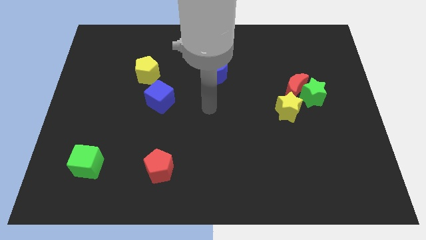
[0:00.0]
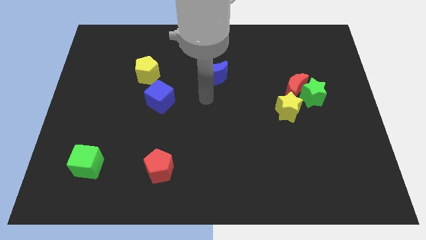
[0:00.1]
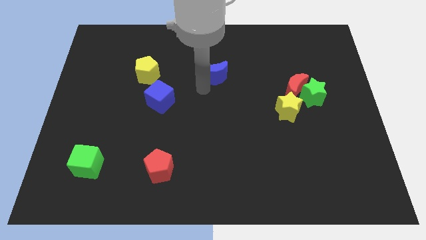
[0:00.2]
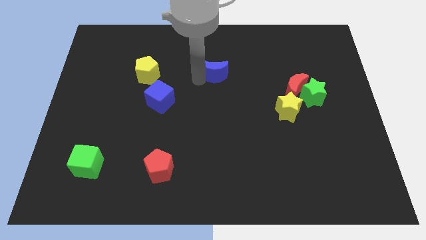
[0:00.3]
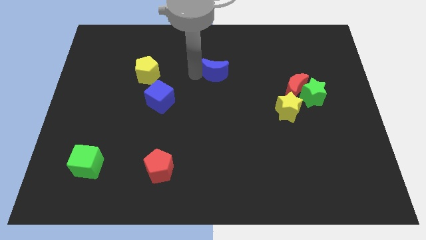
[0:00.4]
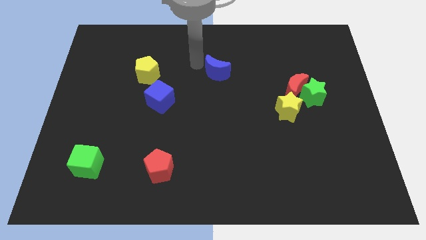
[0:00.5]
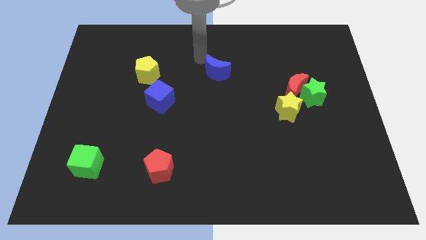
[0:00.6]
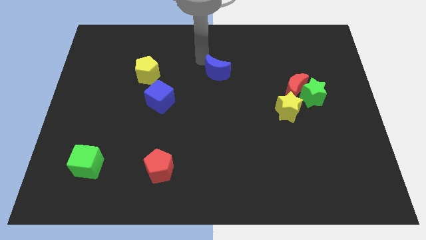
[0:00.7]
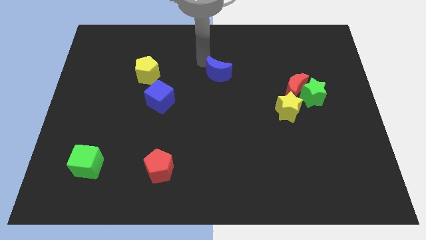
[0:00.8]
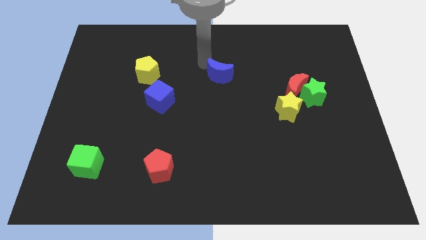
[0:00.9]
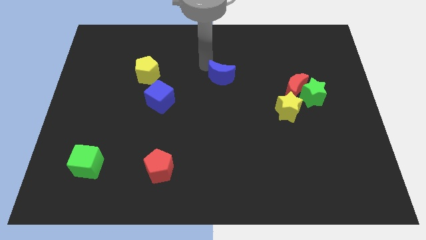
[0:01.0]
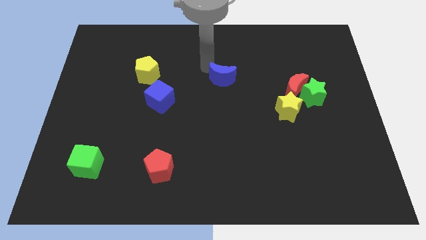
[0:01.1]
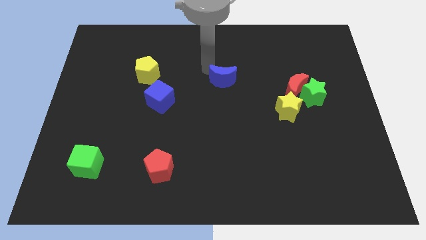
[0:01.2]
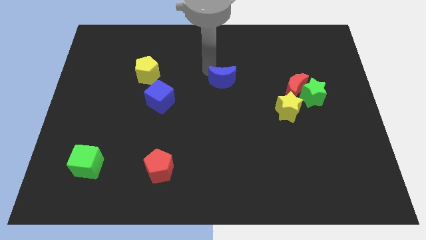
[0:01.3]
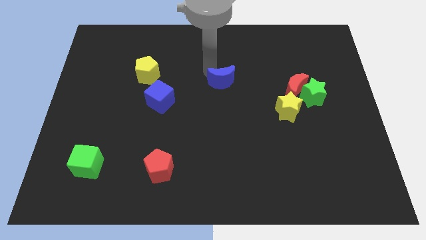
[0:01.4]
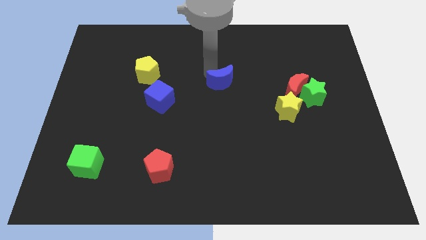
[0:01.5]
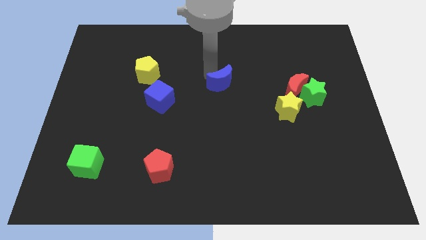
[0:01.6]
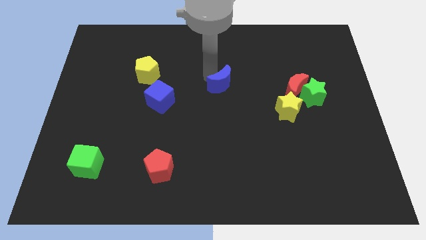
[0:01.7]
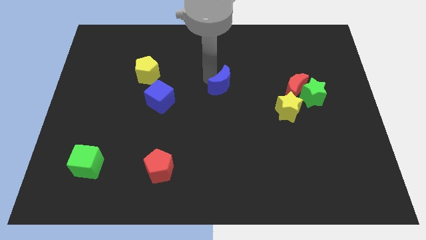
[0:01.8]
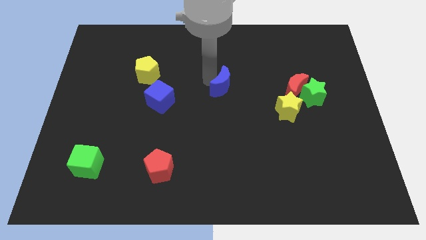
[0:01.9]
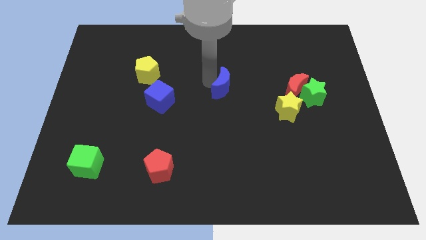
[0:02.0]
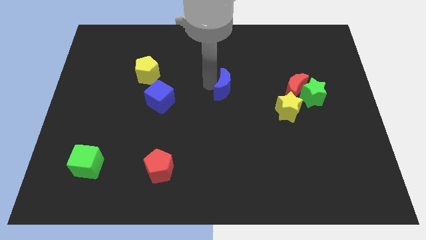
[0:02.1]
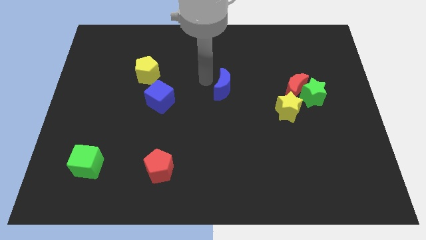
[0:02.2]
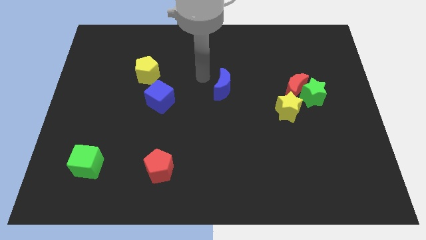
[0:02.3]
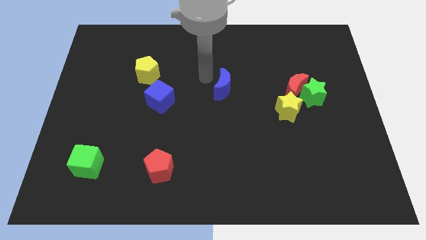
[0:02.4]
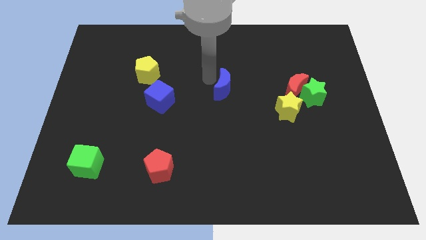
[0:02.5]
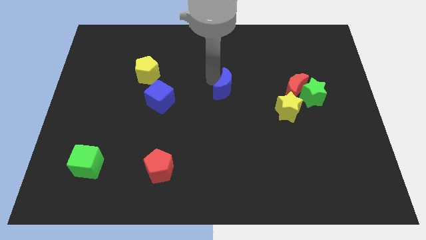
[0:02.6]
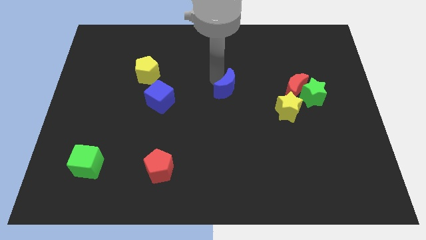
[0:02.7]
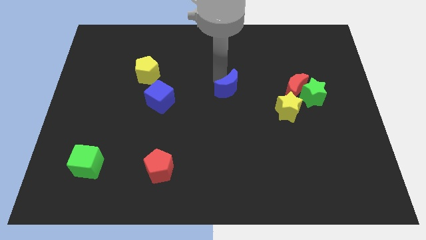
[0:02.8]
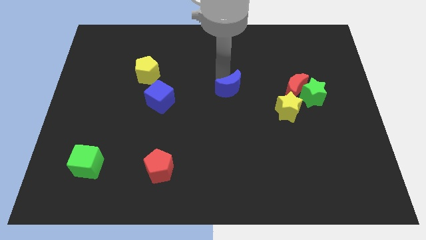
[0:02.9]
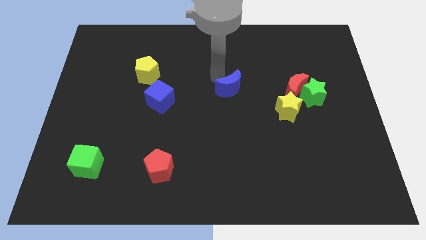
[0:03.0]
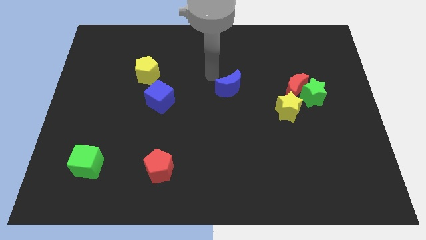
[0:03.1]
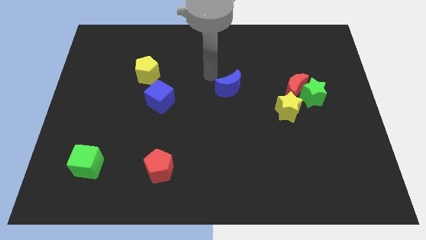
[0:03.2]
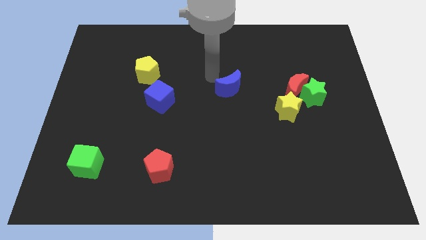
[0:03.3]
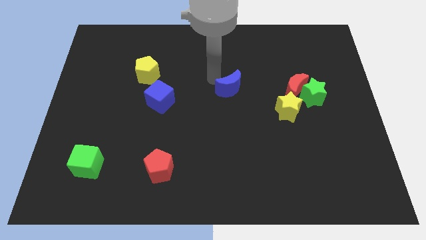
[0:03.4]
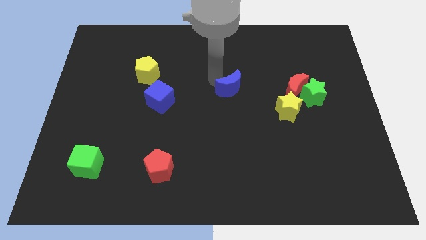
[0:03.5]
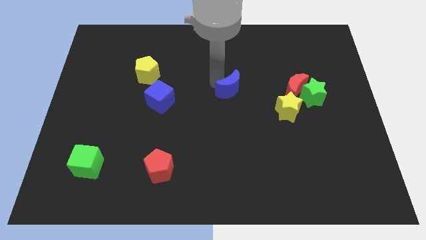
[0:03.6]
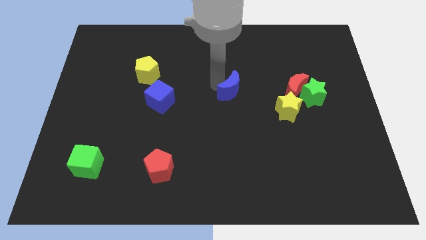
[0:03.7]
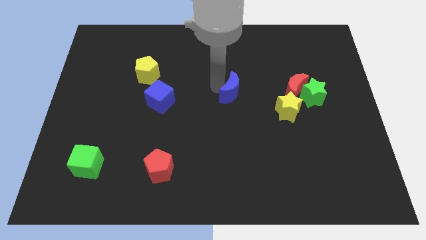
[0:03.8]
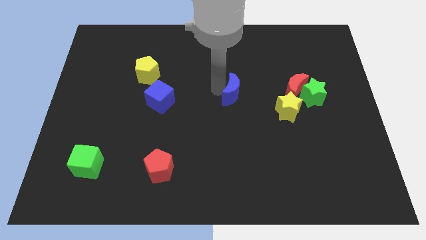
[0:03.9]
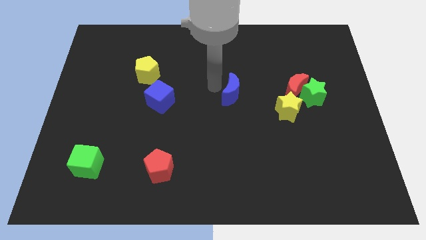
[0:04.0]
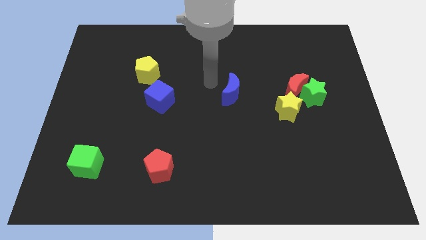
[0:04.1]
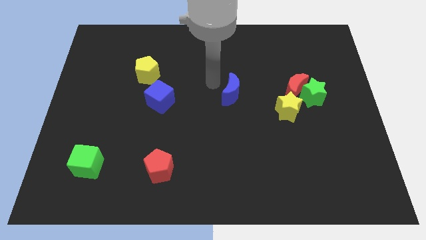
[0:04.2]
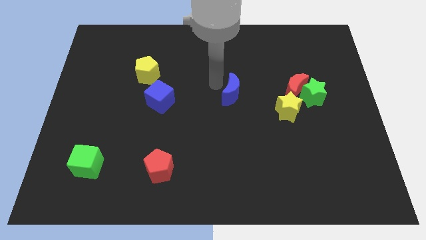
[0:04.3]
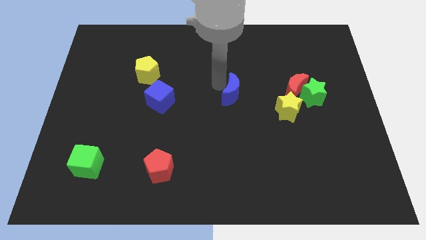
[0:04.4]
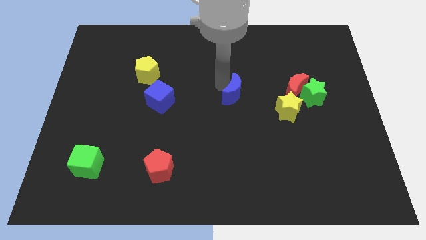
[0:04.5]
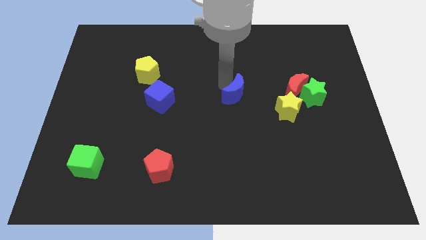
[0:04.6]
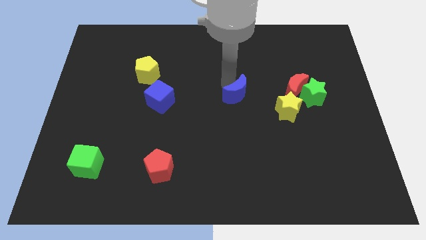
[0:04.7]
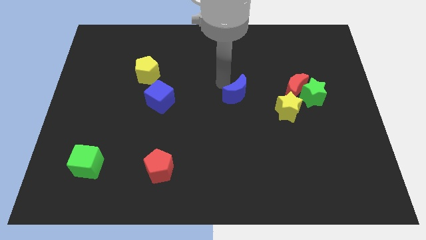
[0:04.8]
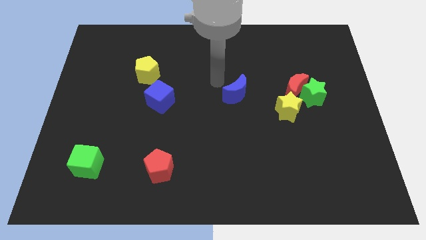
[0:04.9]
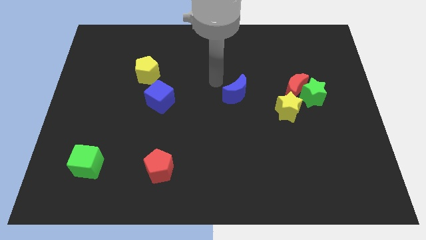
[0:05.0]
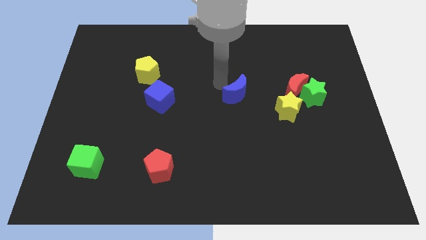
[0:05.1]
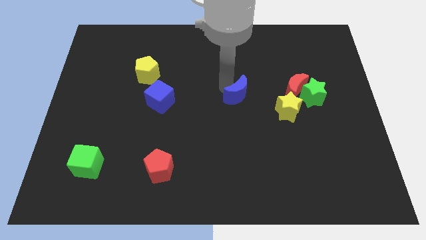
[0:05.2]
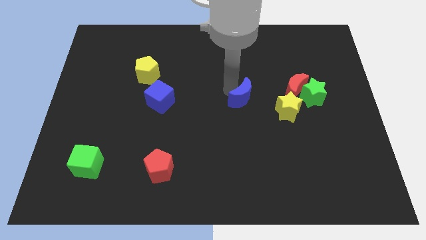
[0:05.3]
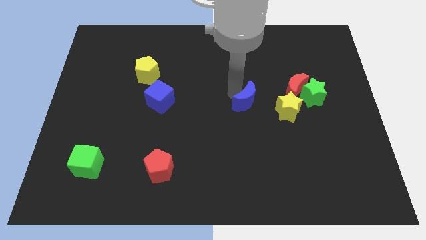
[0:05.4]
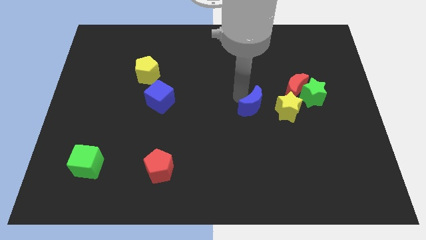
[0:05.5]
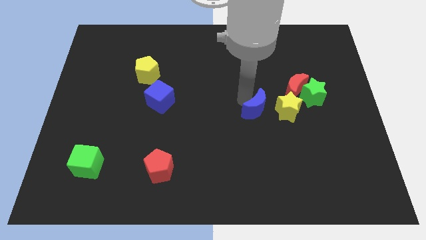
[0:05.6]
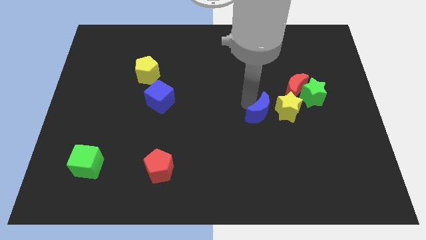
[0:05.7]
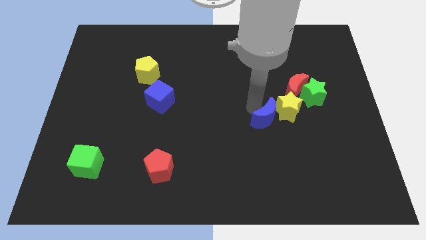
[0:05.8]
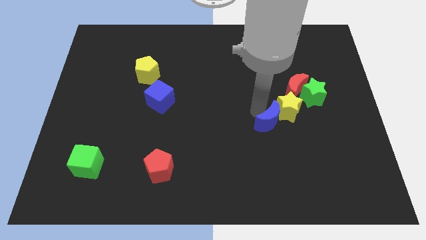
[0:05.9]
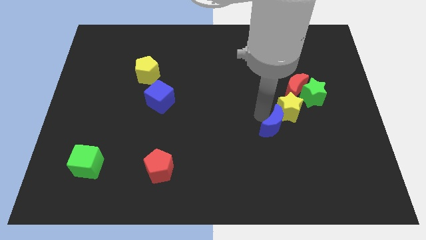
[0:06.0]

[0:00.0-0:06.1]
push the blue moon diagonally down and to the right

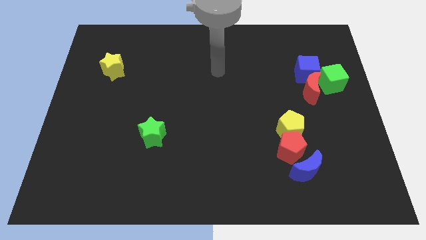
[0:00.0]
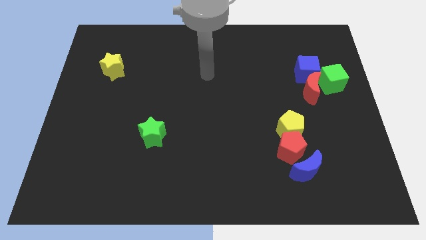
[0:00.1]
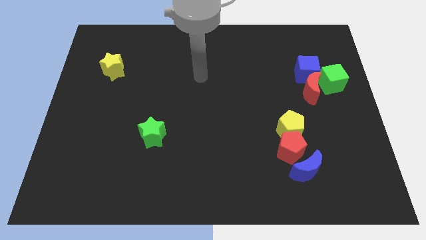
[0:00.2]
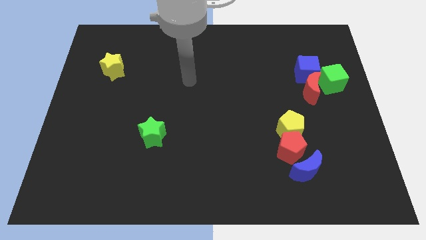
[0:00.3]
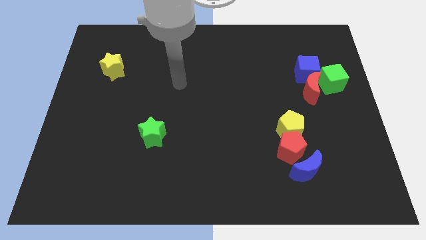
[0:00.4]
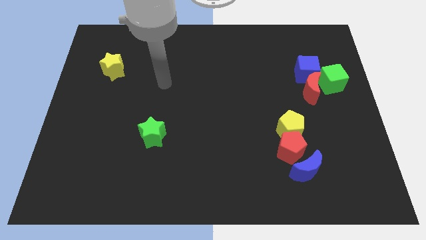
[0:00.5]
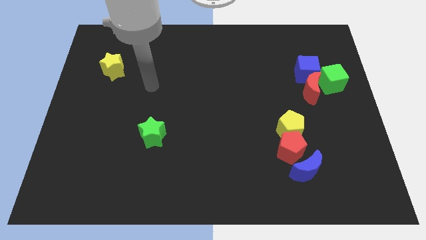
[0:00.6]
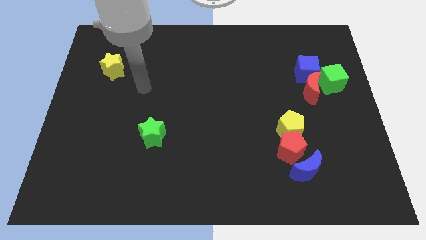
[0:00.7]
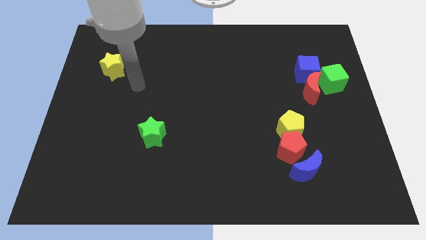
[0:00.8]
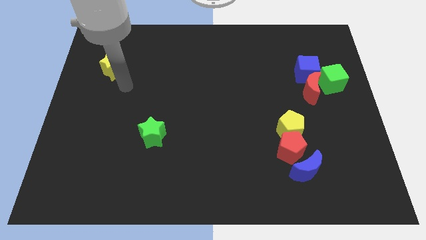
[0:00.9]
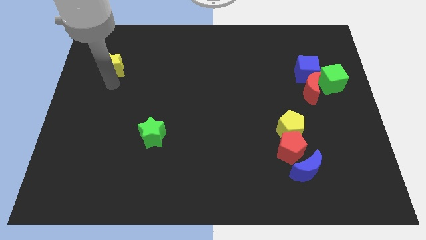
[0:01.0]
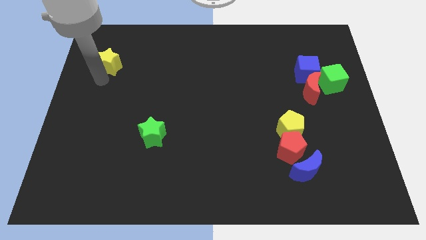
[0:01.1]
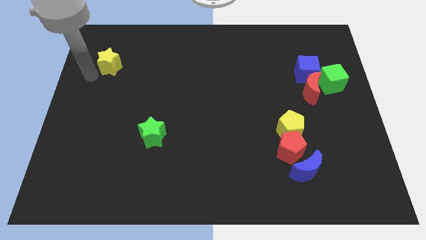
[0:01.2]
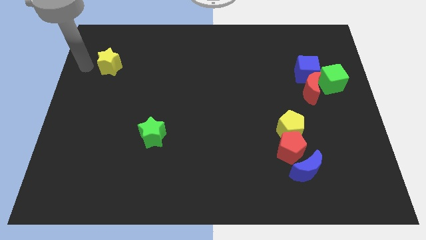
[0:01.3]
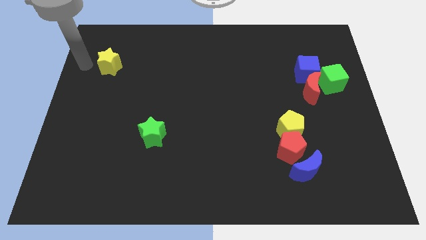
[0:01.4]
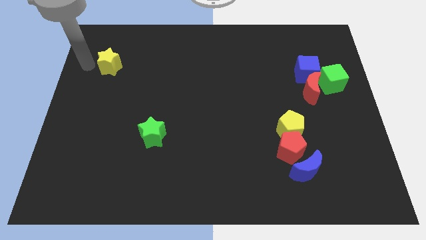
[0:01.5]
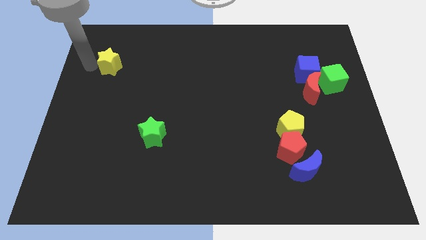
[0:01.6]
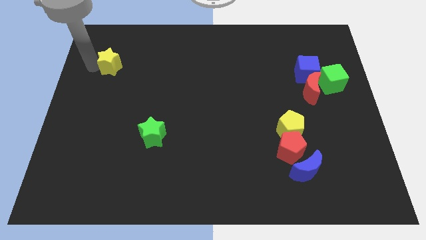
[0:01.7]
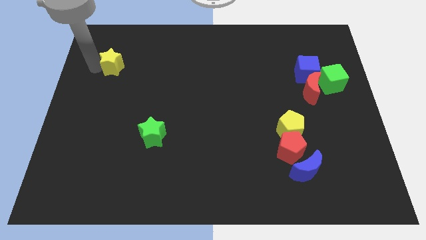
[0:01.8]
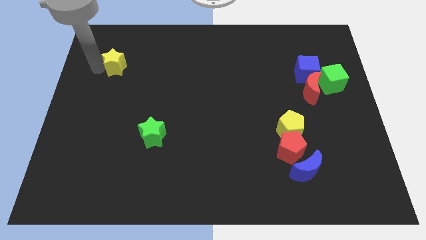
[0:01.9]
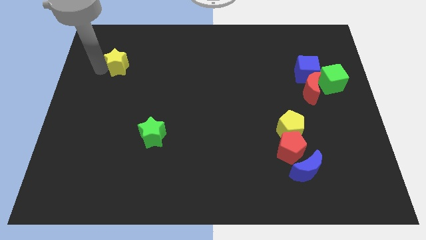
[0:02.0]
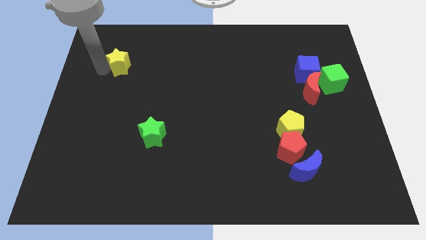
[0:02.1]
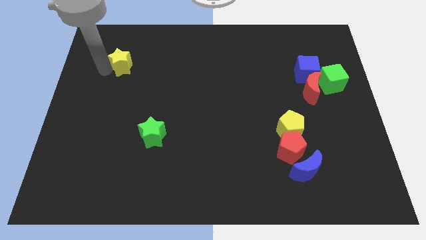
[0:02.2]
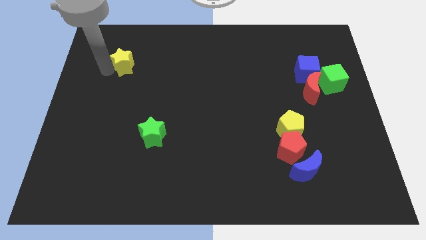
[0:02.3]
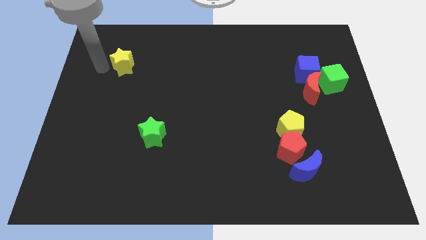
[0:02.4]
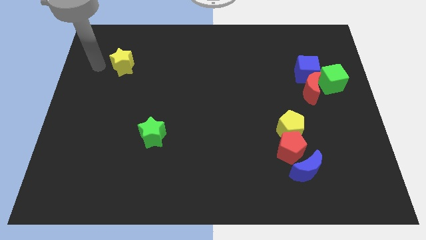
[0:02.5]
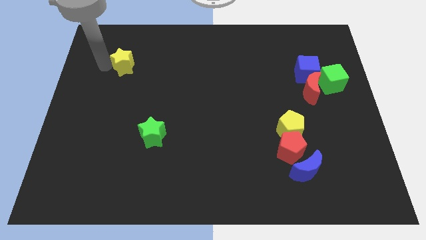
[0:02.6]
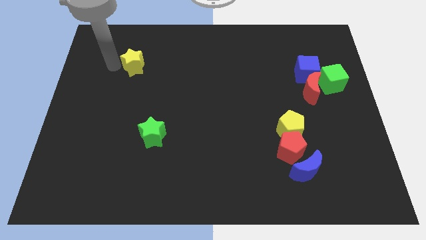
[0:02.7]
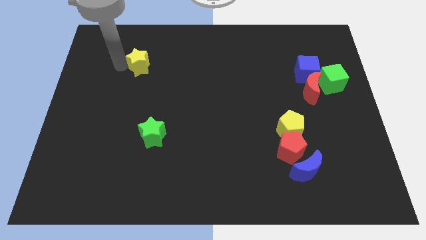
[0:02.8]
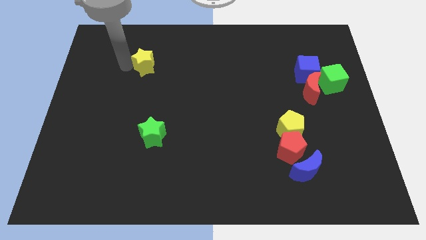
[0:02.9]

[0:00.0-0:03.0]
push the yellow star right a little
